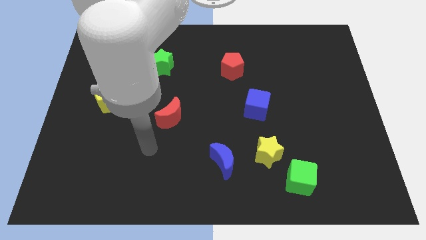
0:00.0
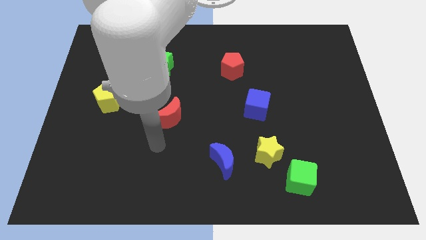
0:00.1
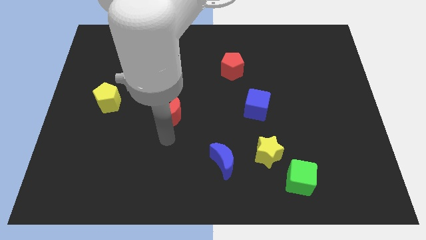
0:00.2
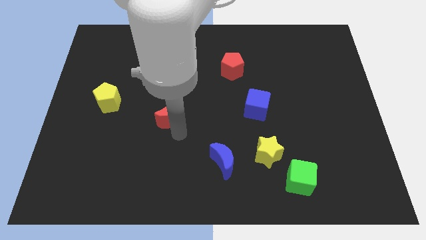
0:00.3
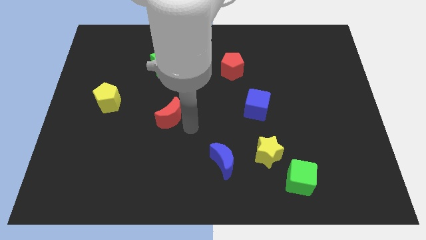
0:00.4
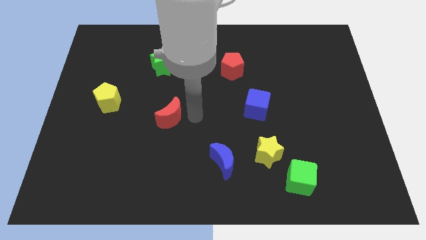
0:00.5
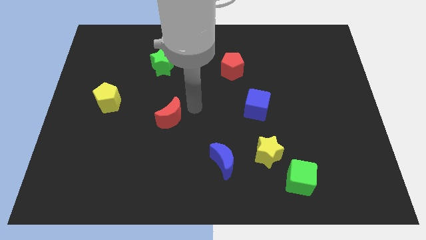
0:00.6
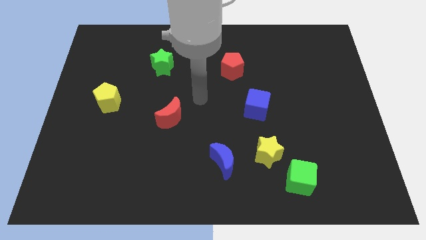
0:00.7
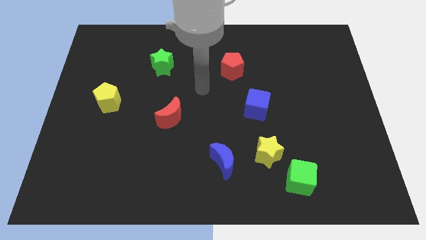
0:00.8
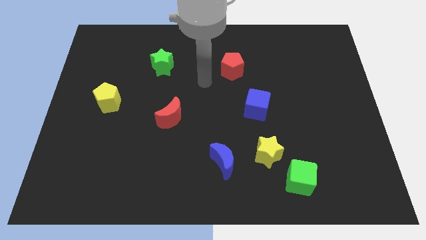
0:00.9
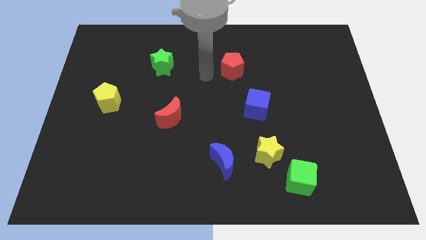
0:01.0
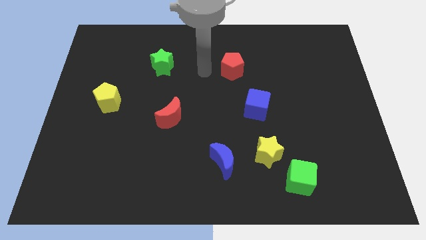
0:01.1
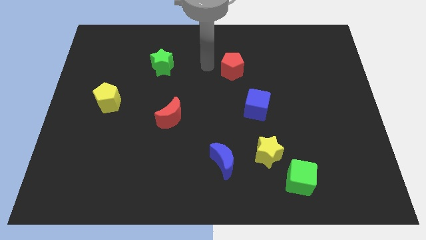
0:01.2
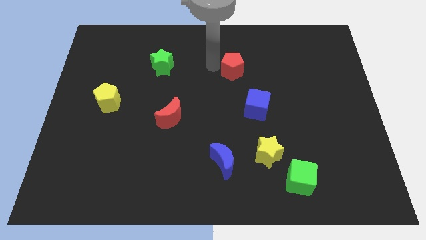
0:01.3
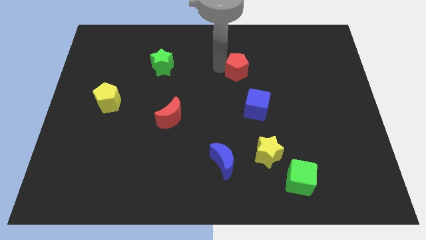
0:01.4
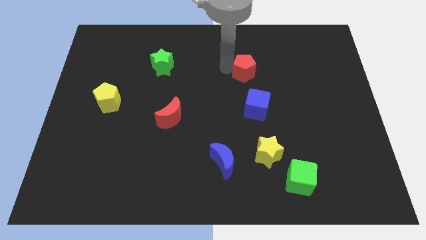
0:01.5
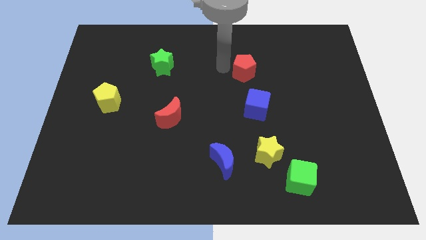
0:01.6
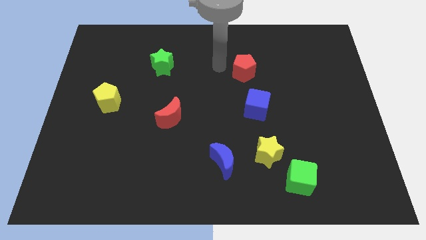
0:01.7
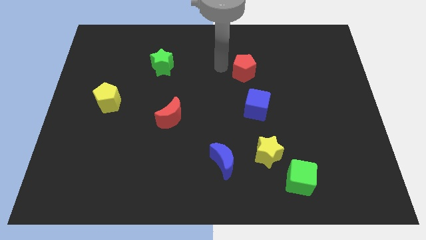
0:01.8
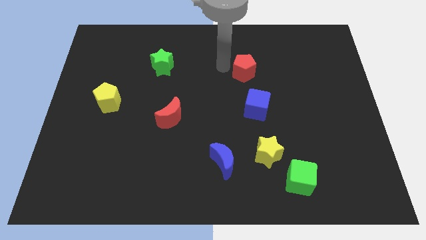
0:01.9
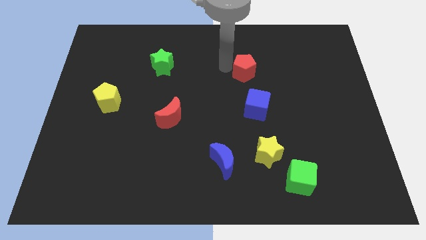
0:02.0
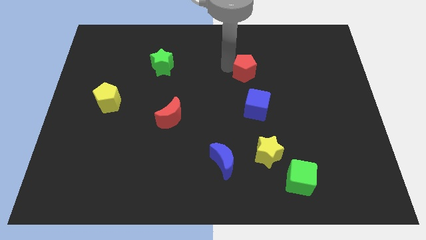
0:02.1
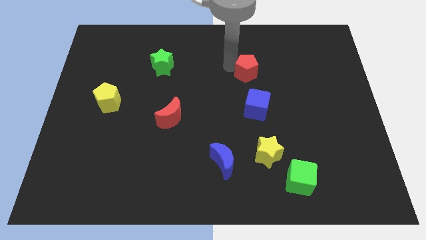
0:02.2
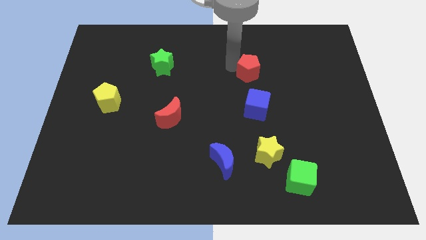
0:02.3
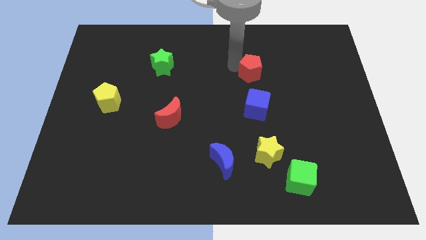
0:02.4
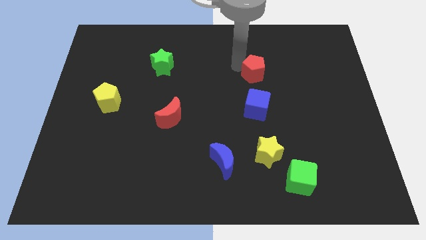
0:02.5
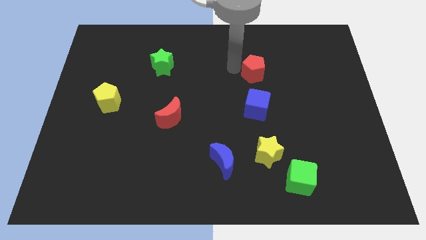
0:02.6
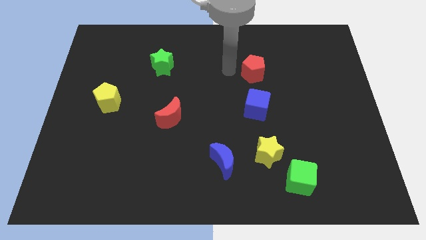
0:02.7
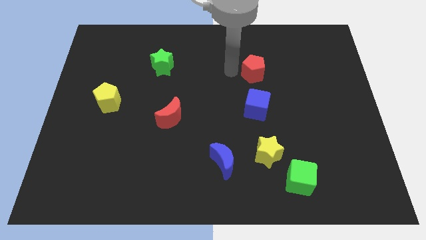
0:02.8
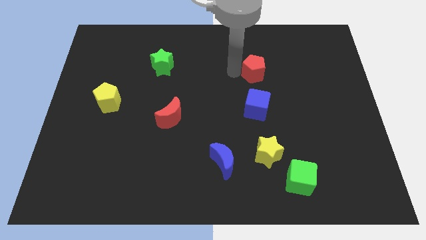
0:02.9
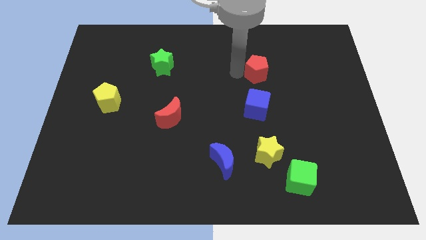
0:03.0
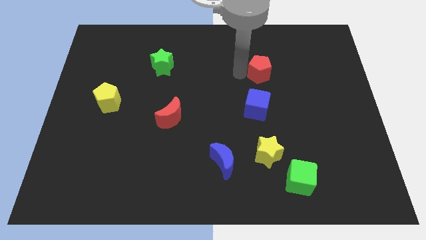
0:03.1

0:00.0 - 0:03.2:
push the red pentagon a bit to the right

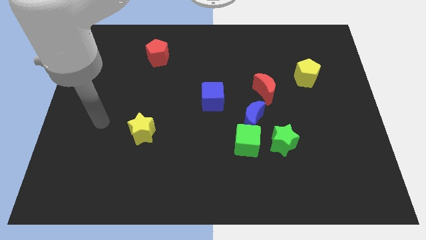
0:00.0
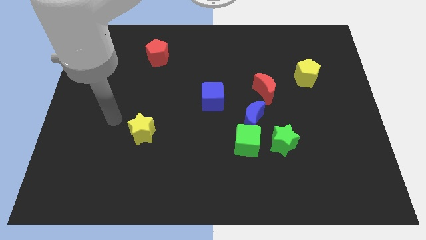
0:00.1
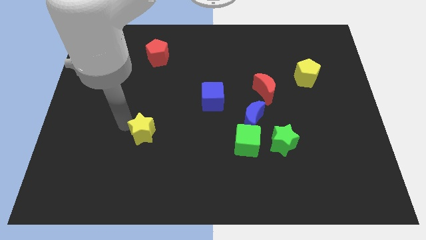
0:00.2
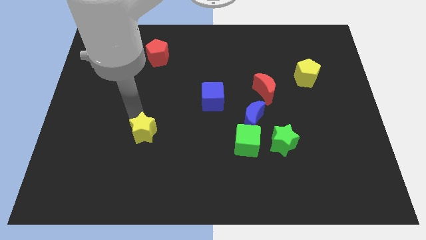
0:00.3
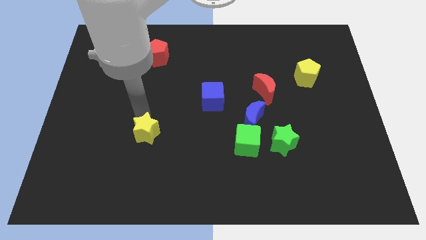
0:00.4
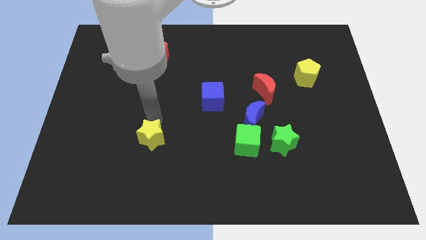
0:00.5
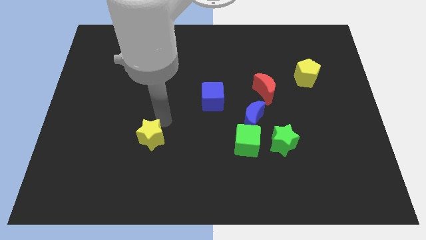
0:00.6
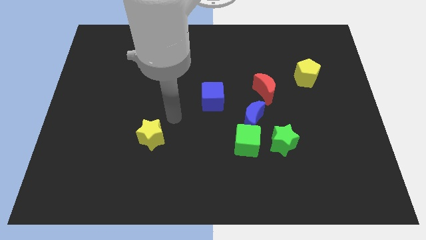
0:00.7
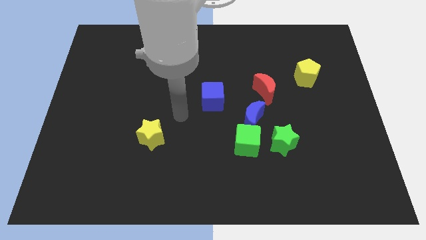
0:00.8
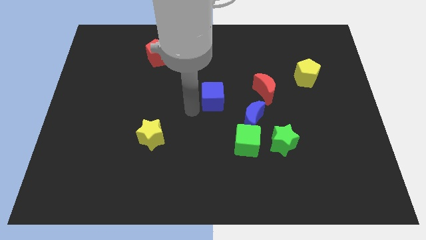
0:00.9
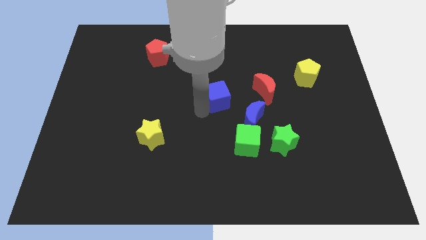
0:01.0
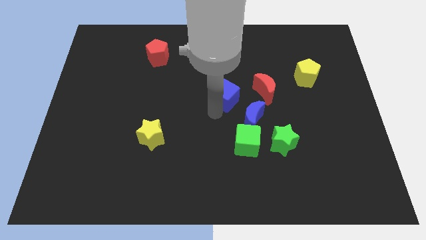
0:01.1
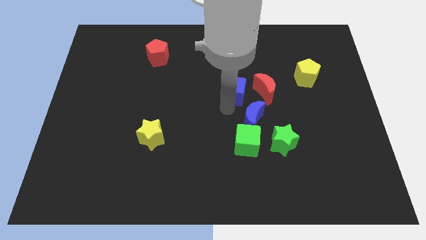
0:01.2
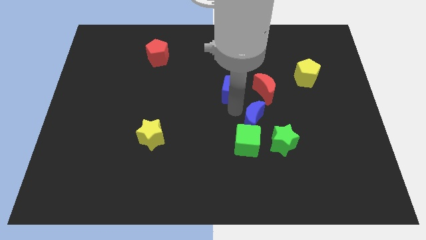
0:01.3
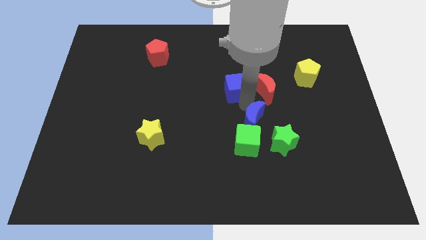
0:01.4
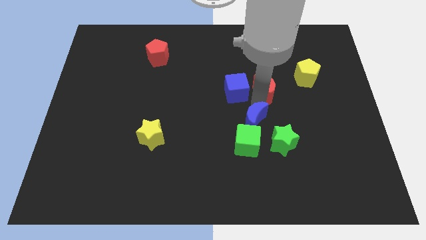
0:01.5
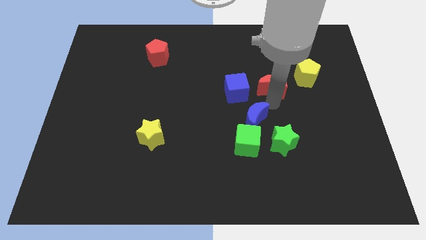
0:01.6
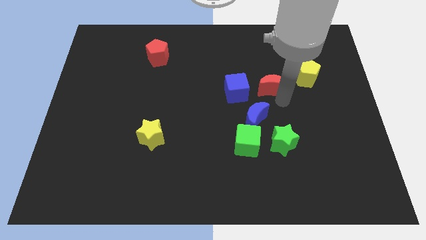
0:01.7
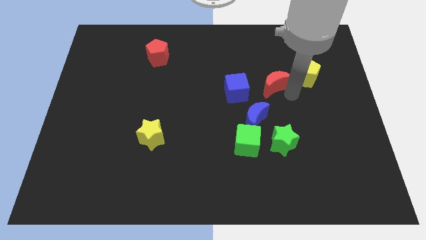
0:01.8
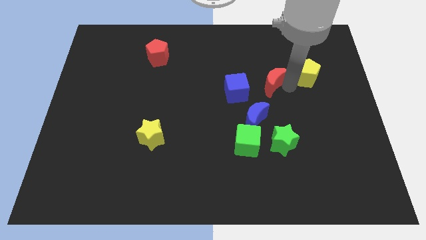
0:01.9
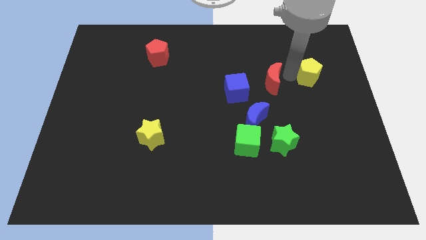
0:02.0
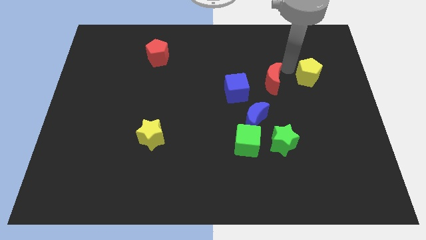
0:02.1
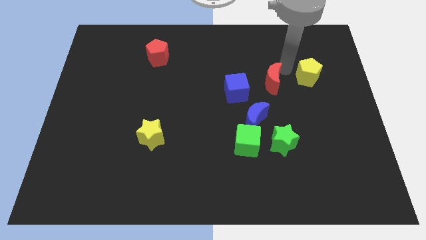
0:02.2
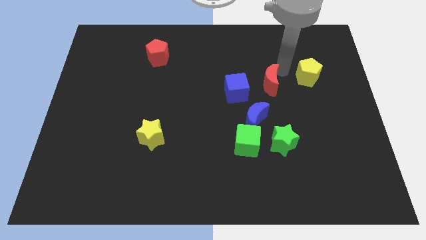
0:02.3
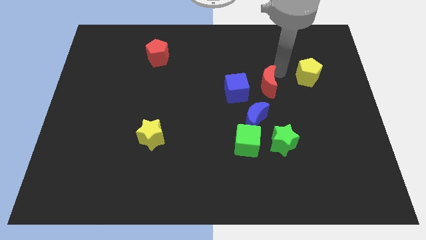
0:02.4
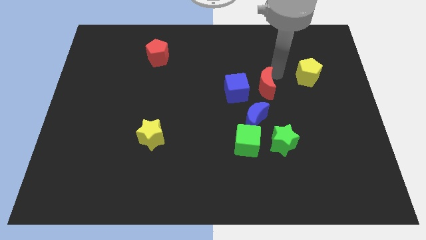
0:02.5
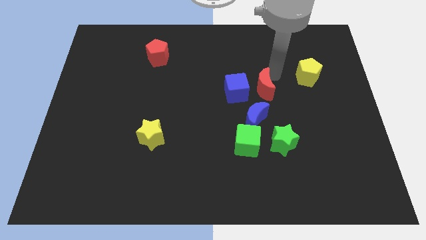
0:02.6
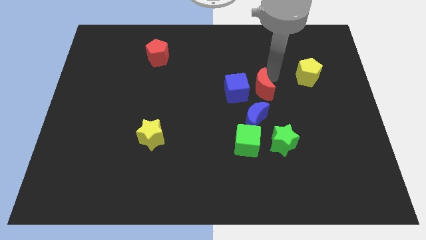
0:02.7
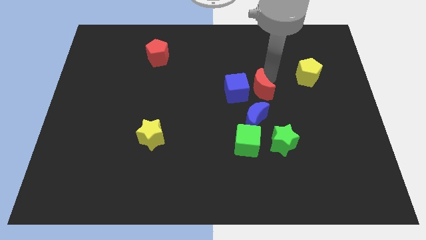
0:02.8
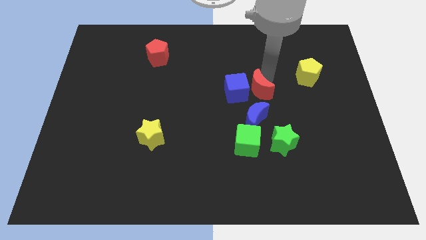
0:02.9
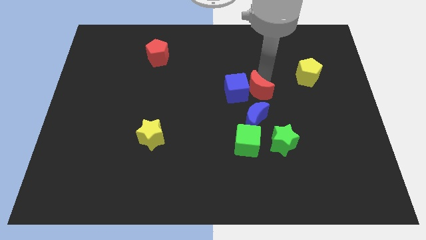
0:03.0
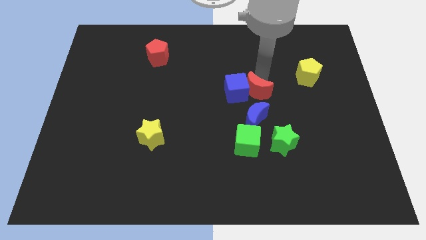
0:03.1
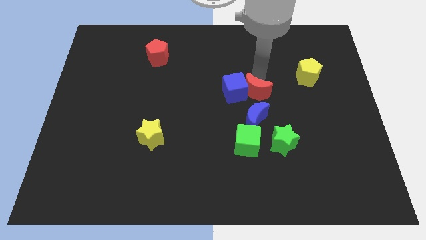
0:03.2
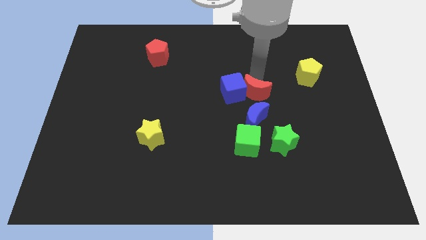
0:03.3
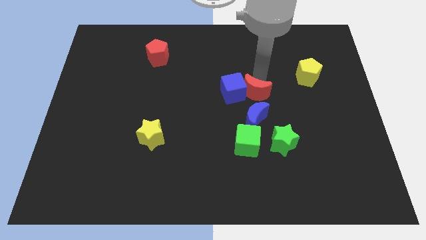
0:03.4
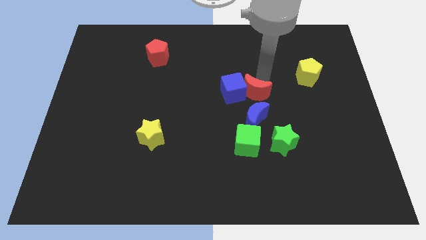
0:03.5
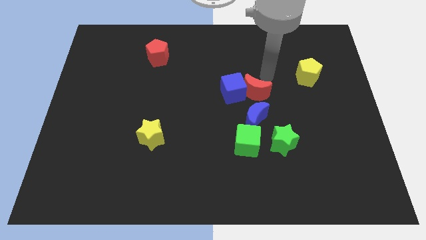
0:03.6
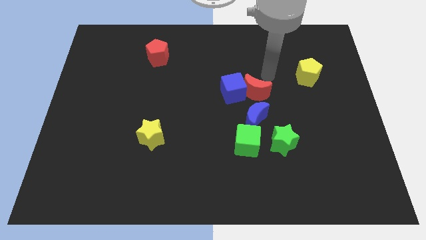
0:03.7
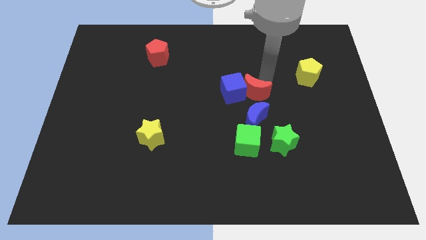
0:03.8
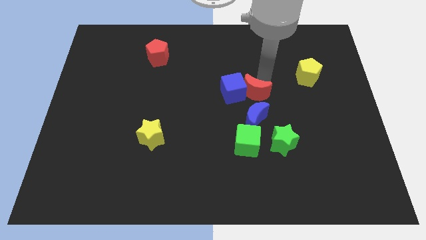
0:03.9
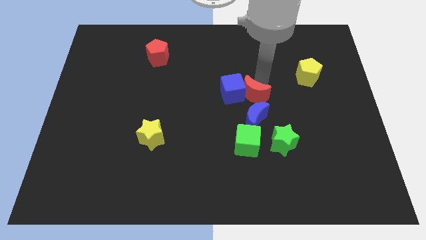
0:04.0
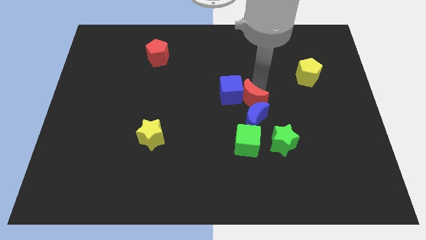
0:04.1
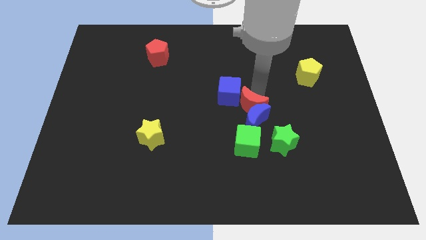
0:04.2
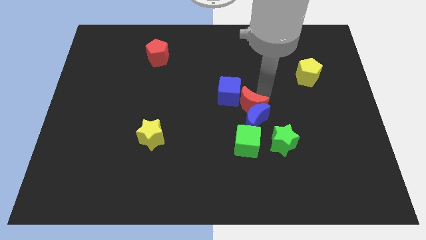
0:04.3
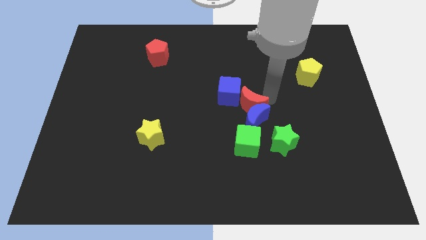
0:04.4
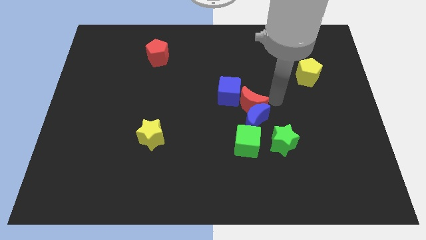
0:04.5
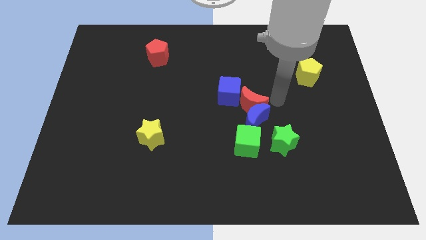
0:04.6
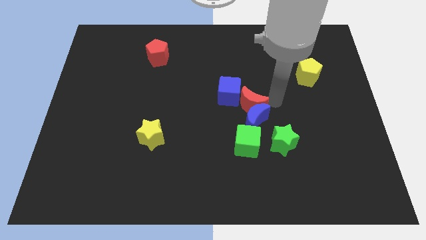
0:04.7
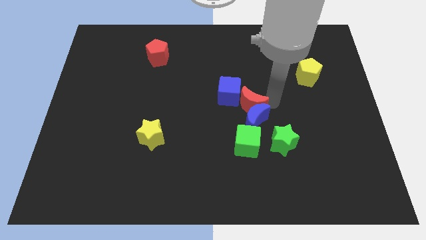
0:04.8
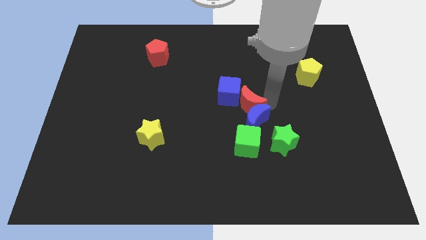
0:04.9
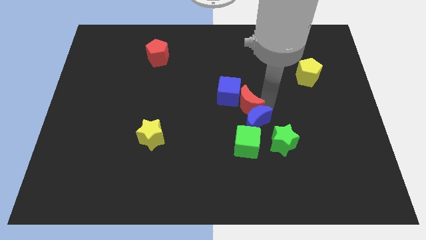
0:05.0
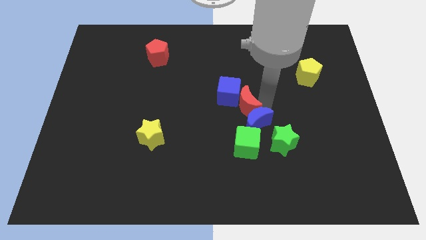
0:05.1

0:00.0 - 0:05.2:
slightly push the red moon downwards and then left
